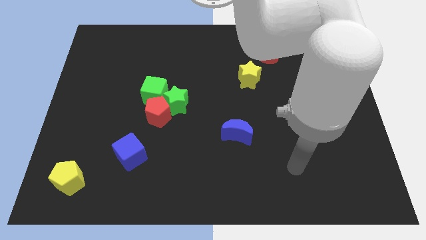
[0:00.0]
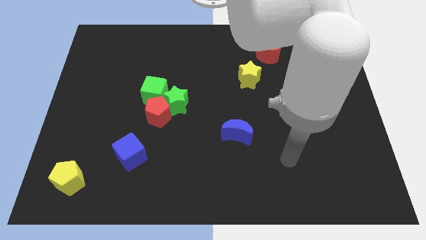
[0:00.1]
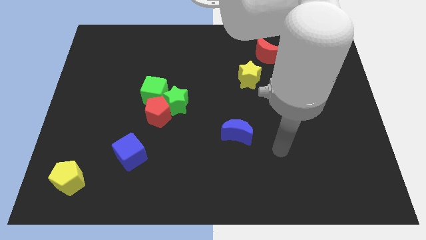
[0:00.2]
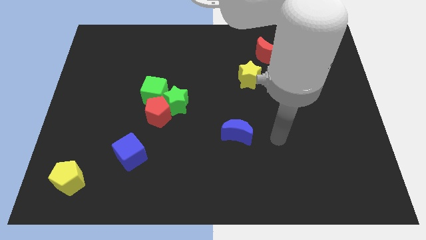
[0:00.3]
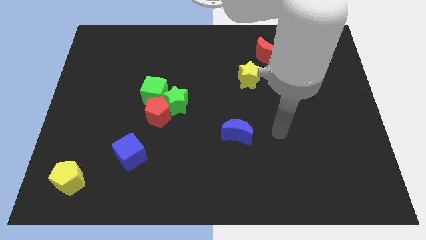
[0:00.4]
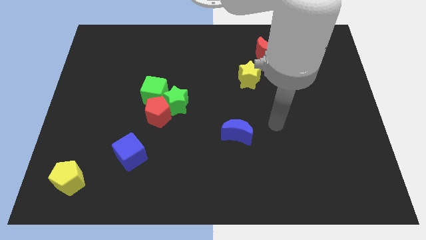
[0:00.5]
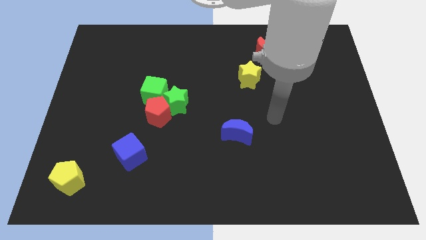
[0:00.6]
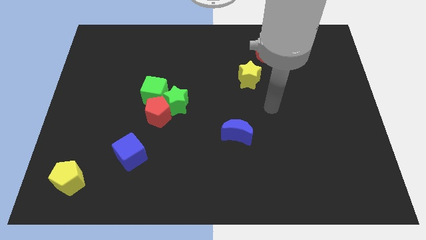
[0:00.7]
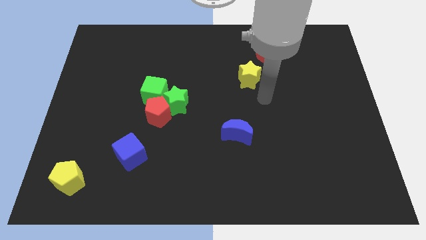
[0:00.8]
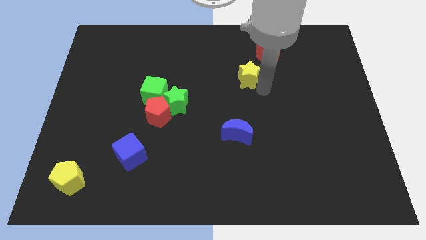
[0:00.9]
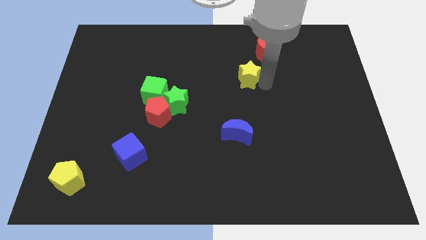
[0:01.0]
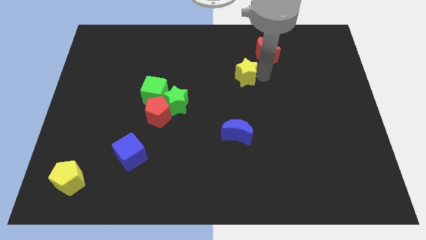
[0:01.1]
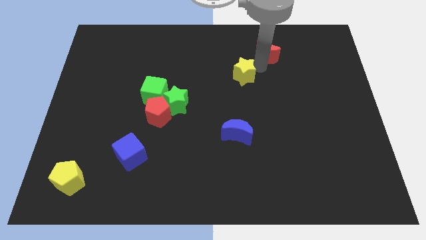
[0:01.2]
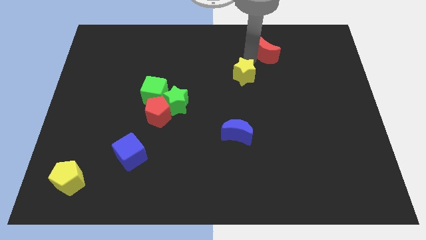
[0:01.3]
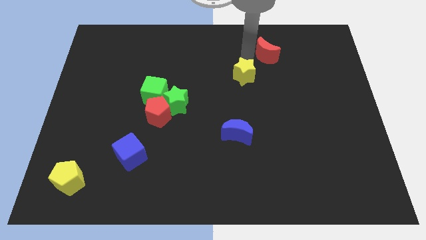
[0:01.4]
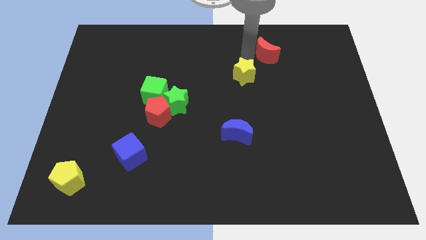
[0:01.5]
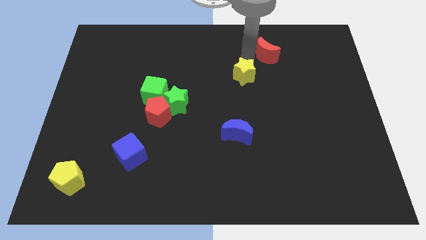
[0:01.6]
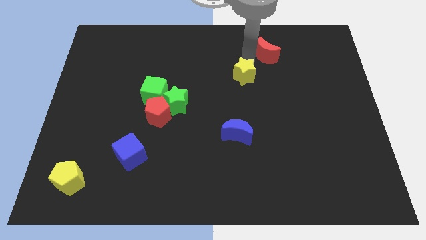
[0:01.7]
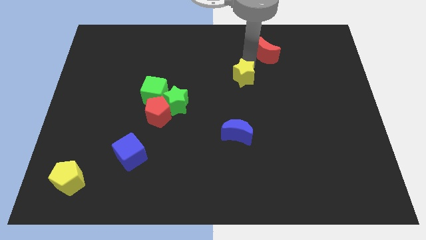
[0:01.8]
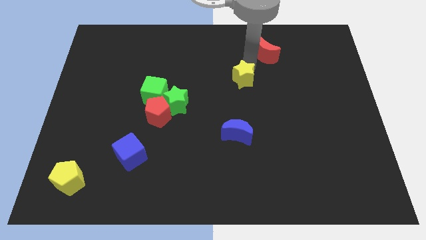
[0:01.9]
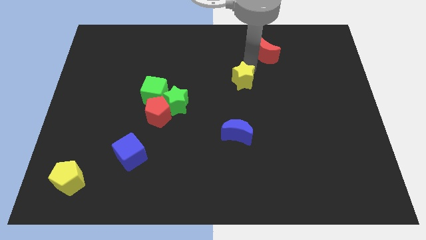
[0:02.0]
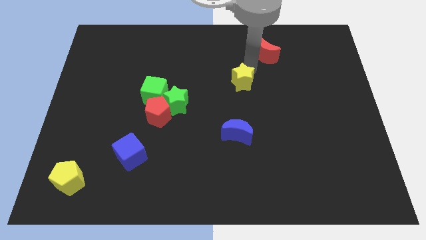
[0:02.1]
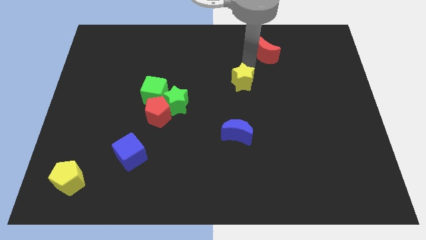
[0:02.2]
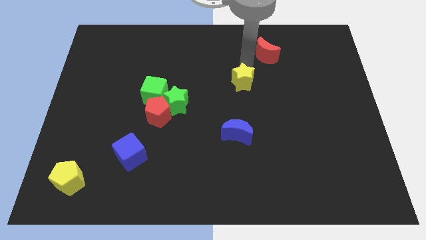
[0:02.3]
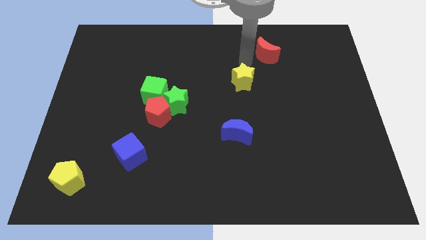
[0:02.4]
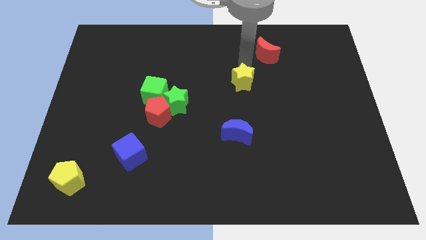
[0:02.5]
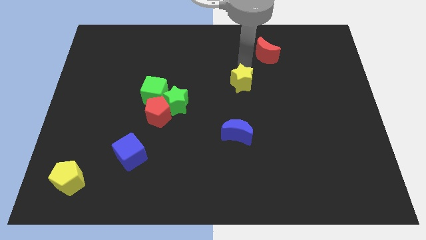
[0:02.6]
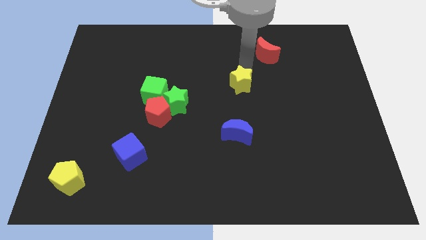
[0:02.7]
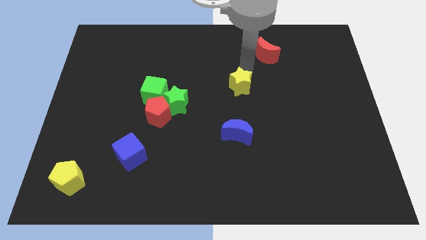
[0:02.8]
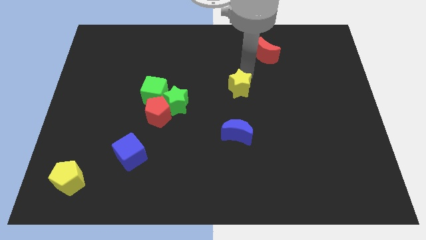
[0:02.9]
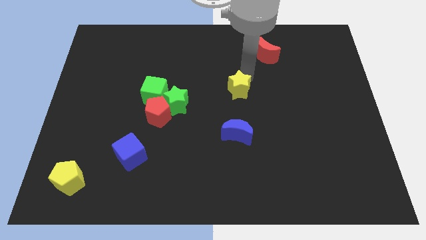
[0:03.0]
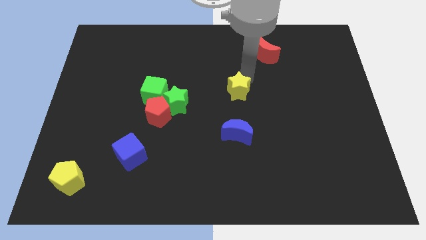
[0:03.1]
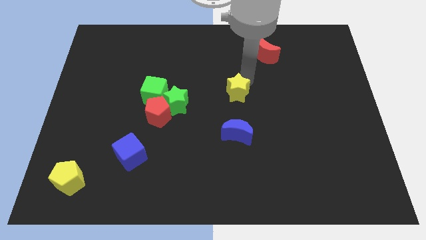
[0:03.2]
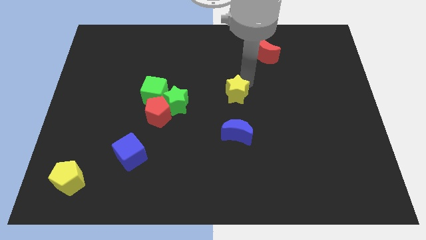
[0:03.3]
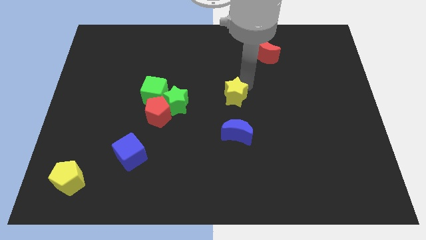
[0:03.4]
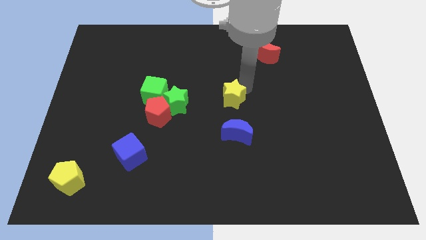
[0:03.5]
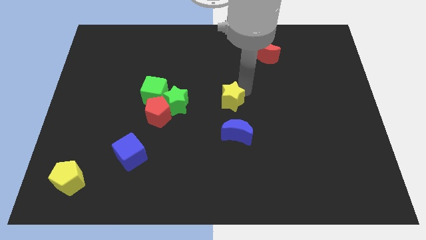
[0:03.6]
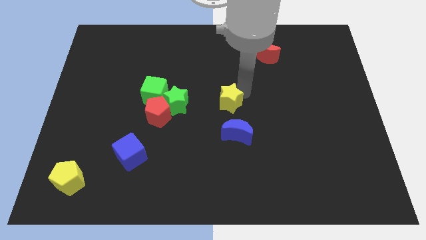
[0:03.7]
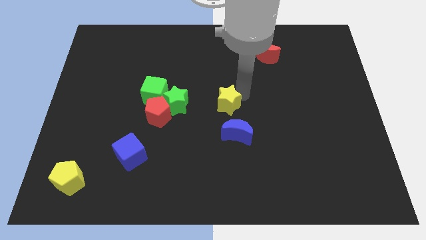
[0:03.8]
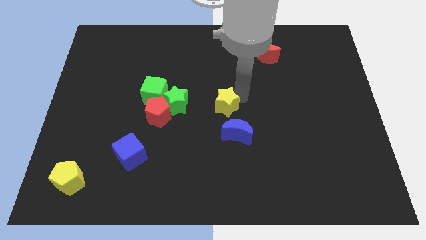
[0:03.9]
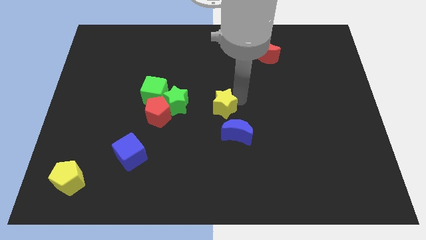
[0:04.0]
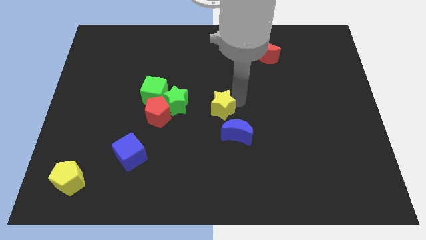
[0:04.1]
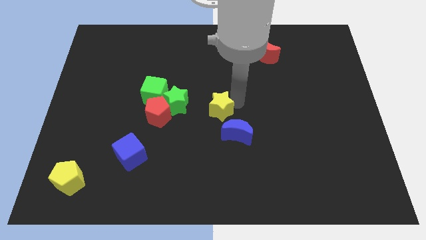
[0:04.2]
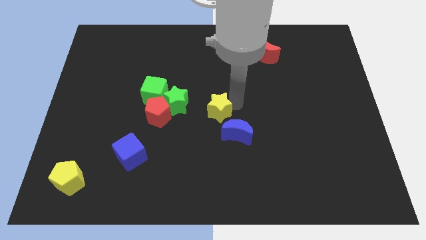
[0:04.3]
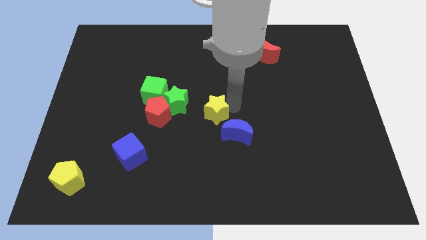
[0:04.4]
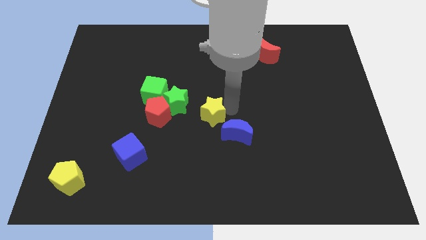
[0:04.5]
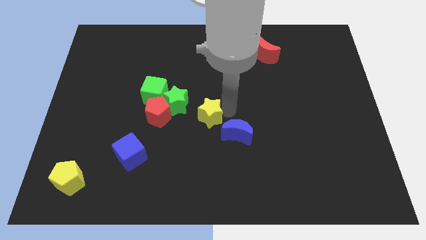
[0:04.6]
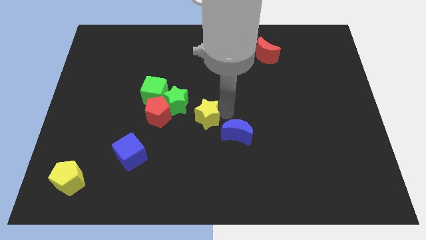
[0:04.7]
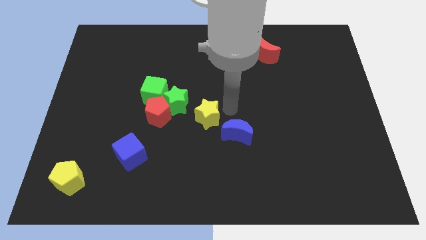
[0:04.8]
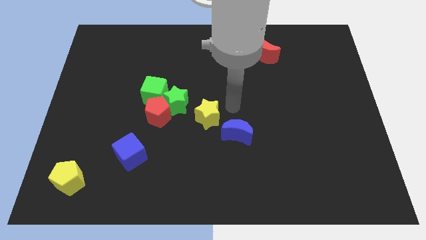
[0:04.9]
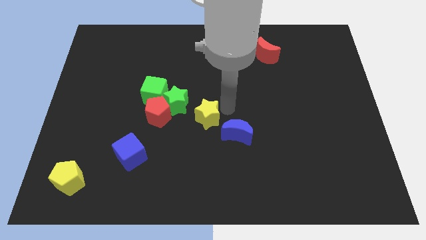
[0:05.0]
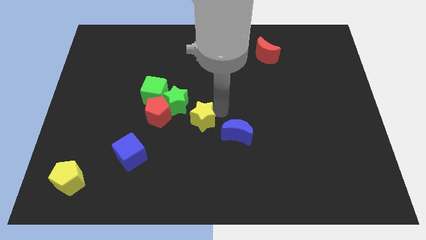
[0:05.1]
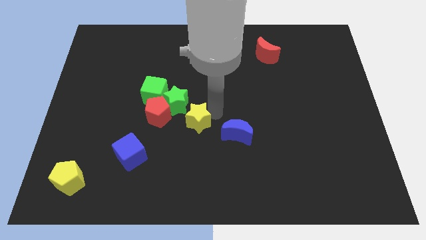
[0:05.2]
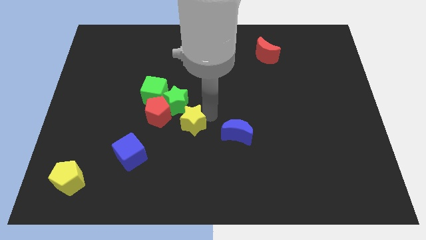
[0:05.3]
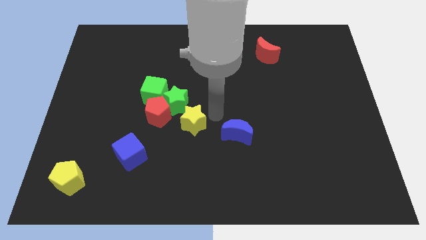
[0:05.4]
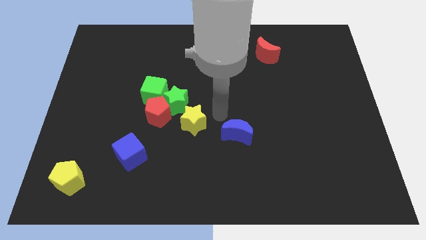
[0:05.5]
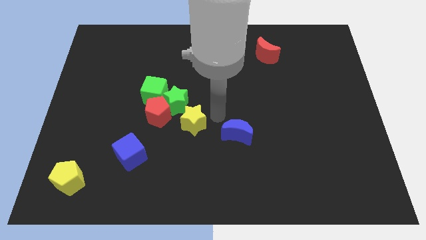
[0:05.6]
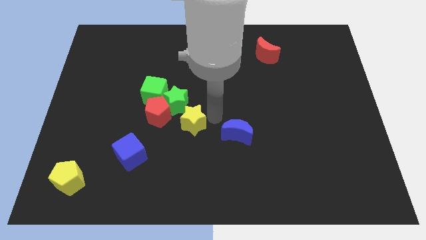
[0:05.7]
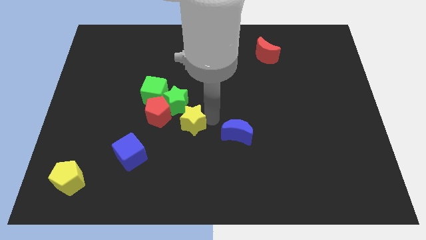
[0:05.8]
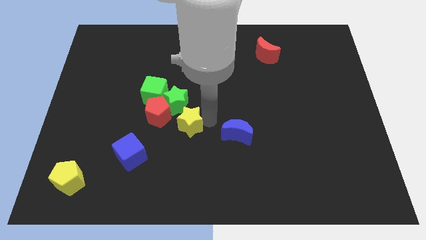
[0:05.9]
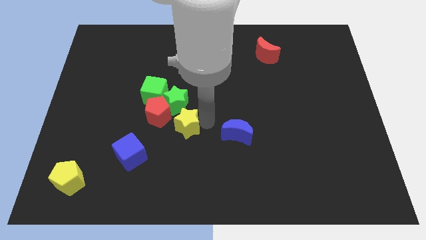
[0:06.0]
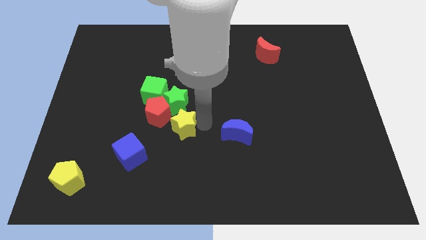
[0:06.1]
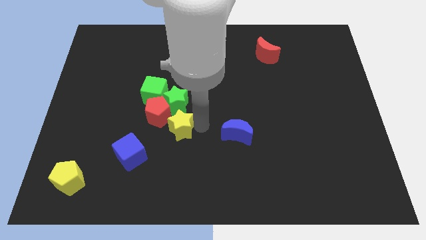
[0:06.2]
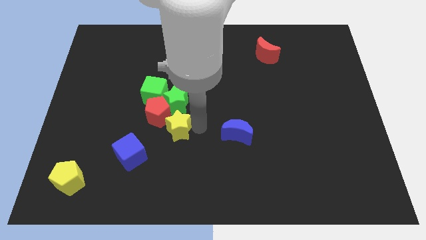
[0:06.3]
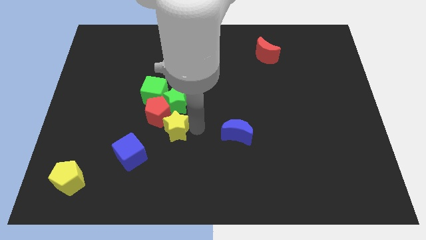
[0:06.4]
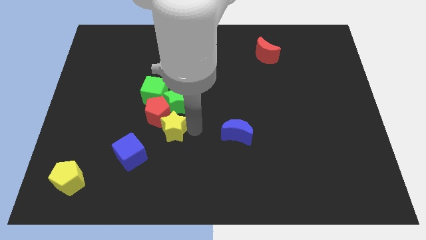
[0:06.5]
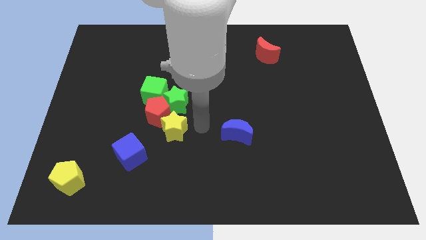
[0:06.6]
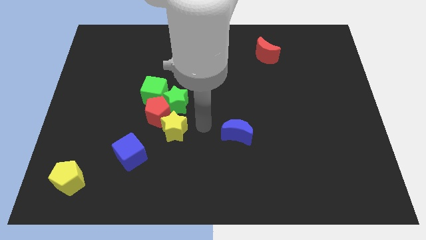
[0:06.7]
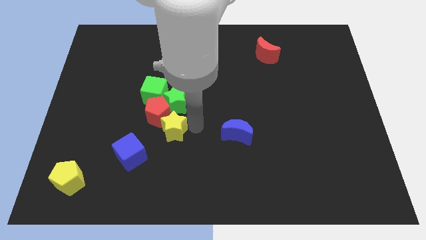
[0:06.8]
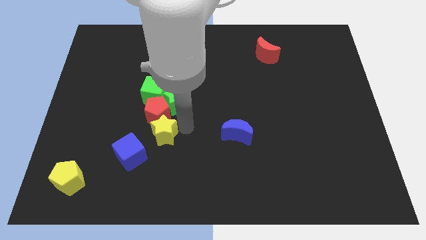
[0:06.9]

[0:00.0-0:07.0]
slide the yellow star diagonally down and to the left of the red pentagon

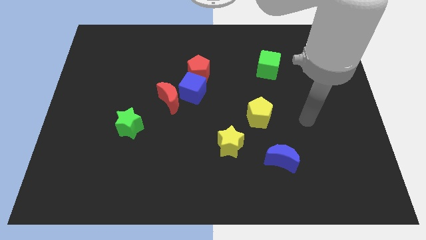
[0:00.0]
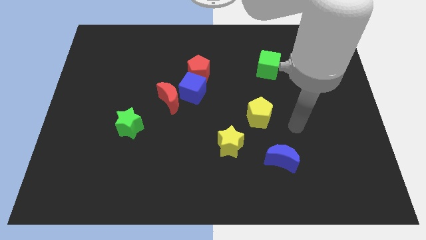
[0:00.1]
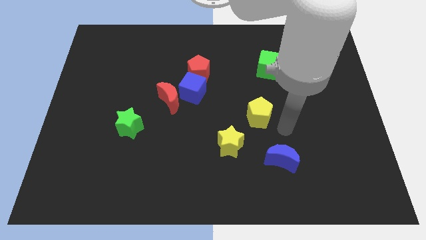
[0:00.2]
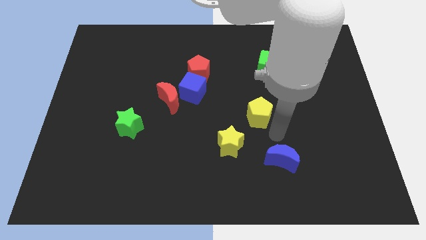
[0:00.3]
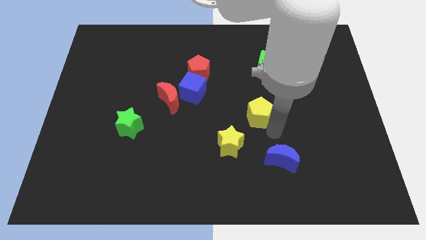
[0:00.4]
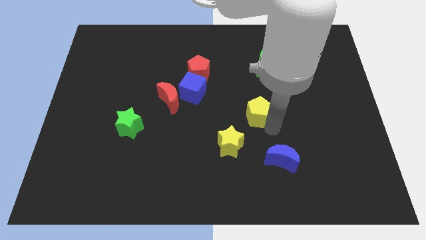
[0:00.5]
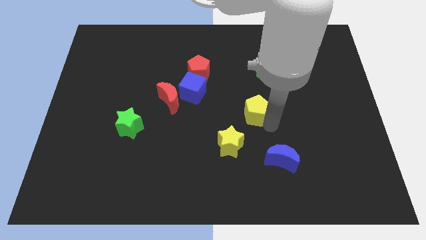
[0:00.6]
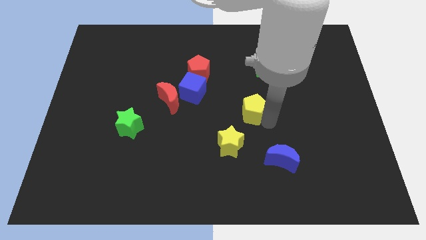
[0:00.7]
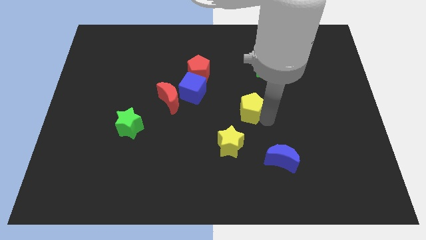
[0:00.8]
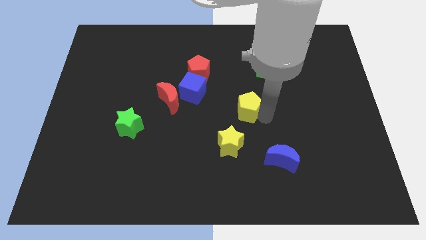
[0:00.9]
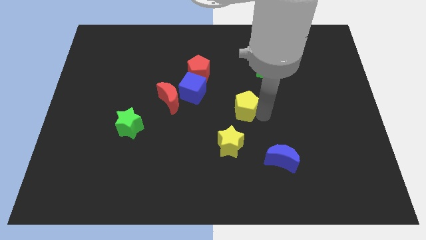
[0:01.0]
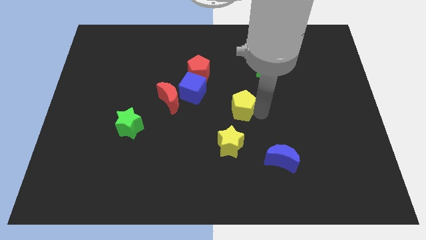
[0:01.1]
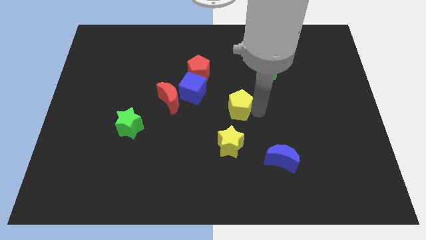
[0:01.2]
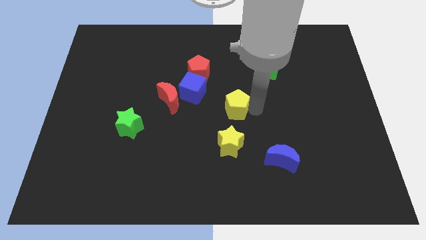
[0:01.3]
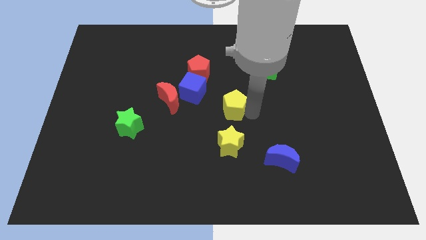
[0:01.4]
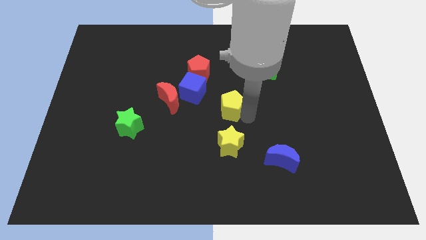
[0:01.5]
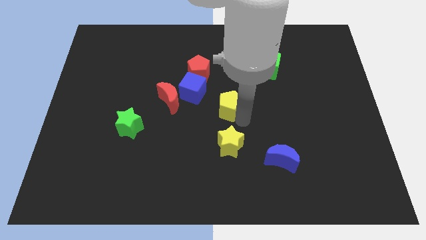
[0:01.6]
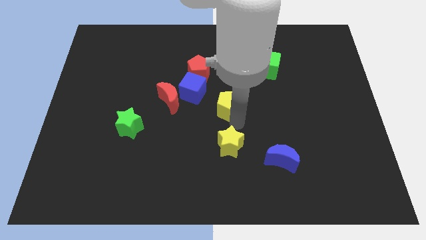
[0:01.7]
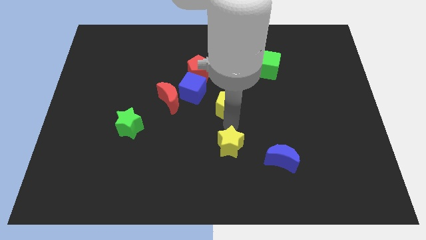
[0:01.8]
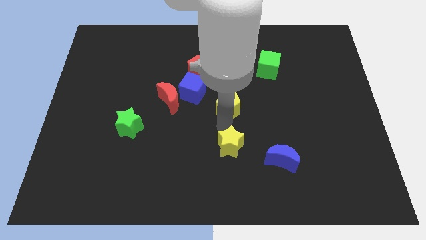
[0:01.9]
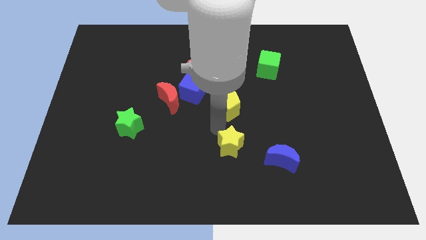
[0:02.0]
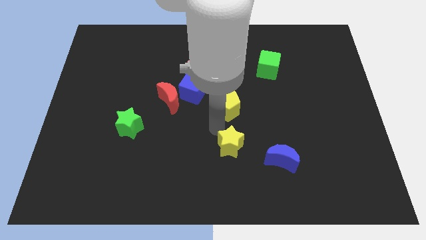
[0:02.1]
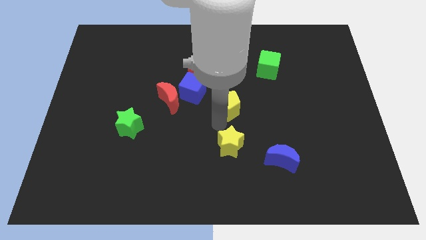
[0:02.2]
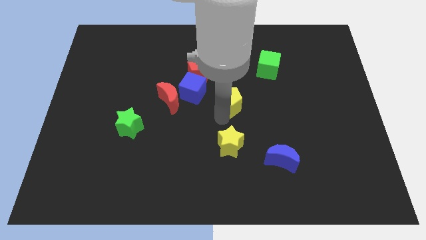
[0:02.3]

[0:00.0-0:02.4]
slide the yellow pentagon to the right side of the blue cube
